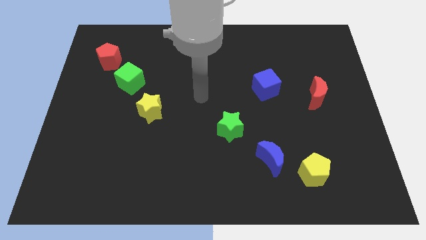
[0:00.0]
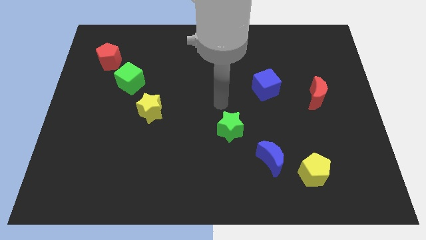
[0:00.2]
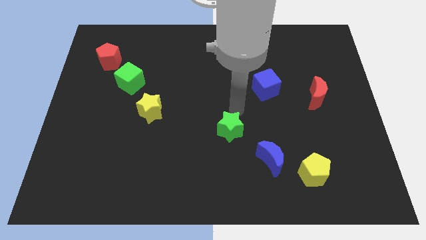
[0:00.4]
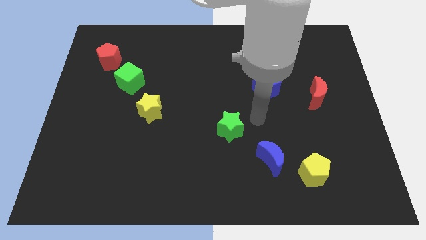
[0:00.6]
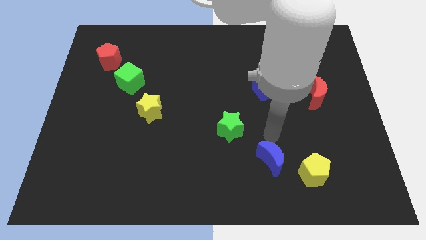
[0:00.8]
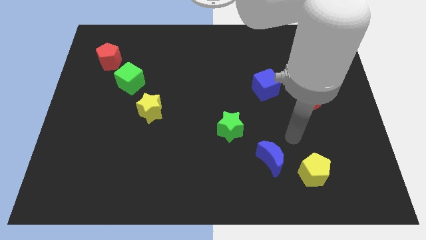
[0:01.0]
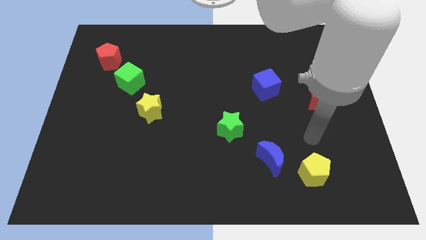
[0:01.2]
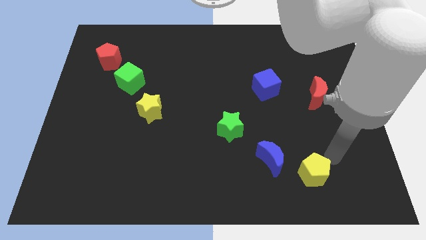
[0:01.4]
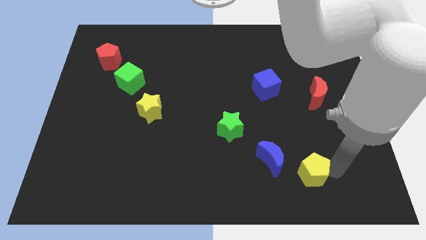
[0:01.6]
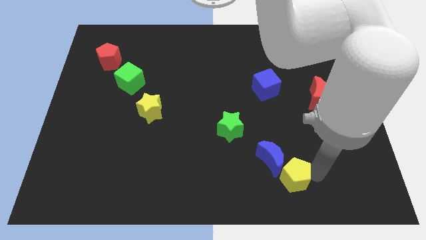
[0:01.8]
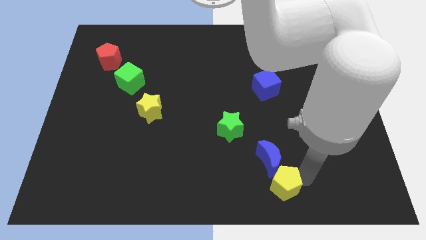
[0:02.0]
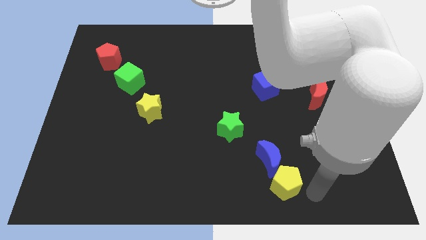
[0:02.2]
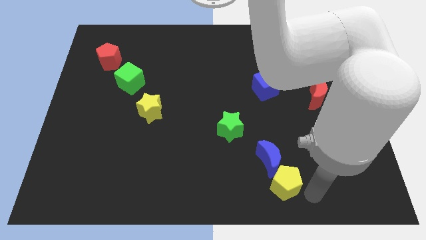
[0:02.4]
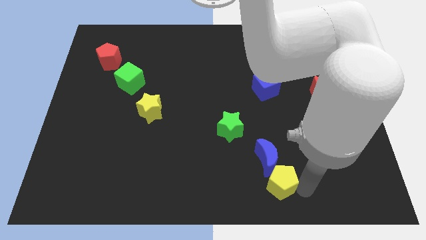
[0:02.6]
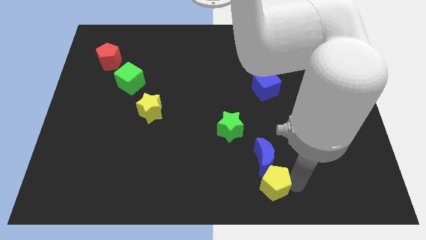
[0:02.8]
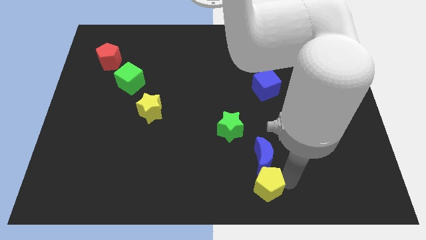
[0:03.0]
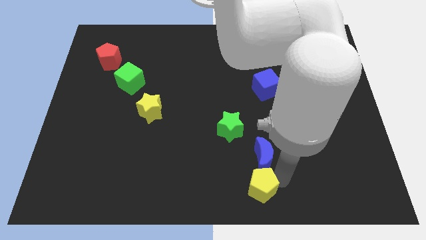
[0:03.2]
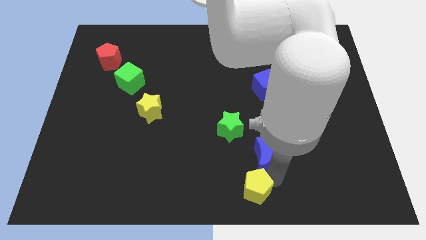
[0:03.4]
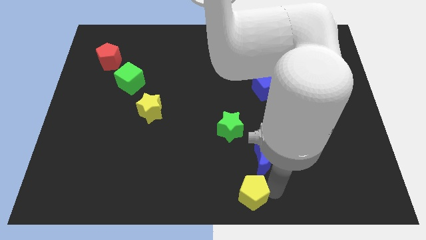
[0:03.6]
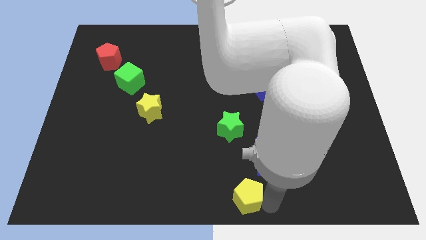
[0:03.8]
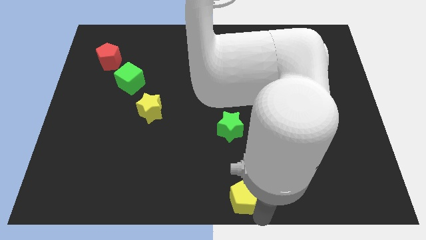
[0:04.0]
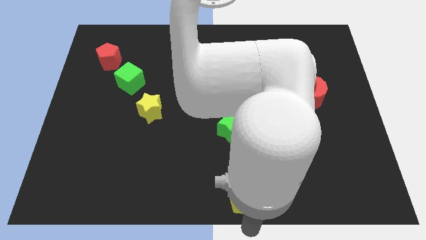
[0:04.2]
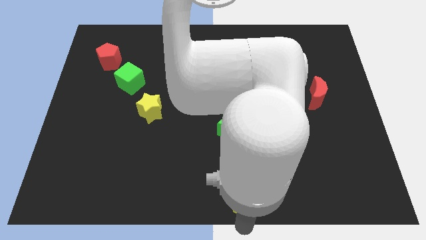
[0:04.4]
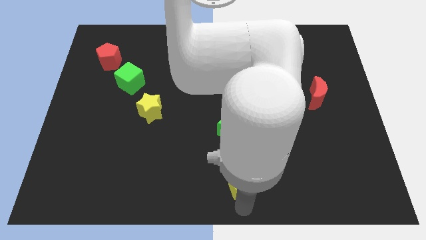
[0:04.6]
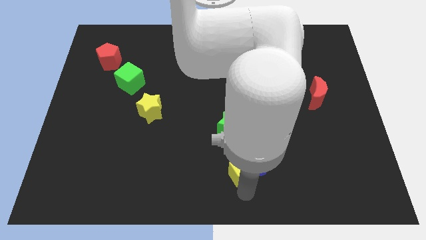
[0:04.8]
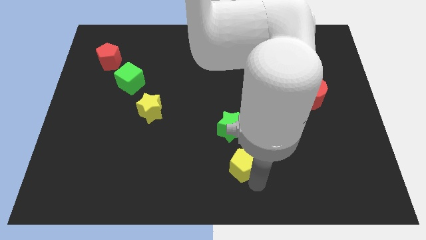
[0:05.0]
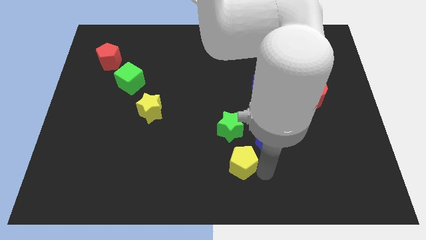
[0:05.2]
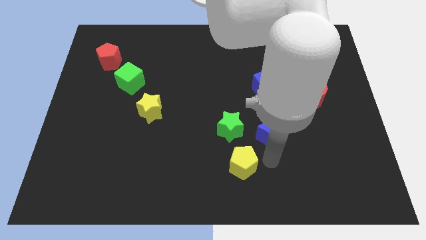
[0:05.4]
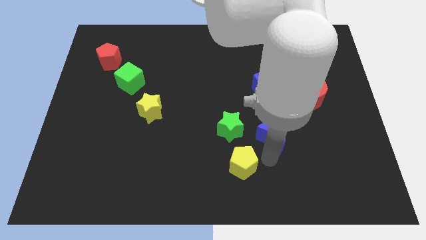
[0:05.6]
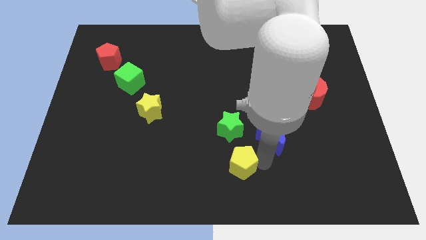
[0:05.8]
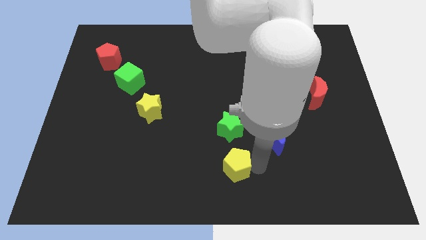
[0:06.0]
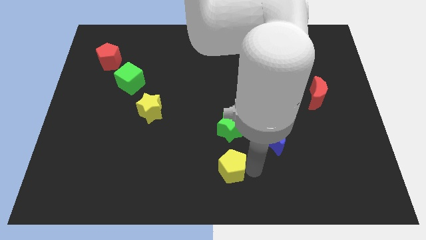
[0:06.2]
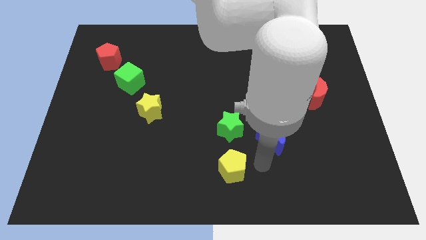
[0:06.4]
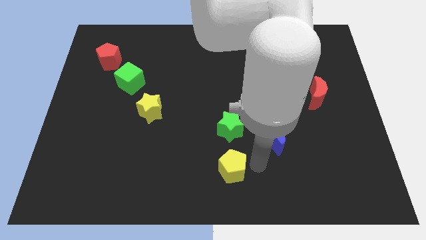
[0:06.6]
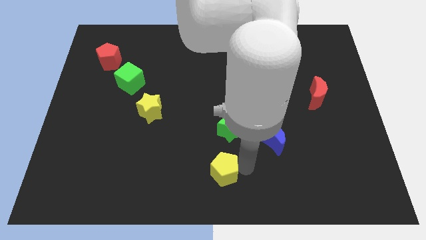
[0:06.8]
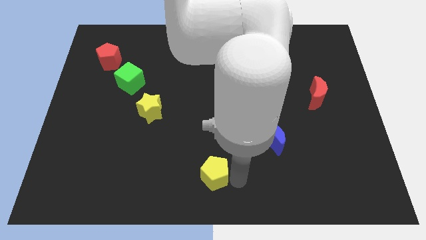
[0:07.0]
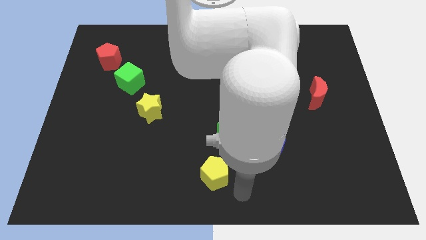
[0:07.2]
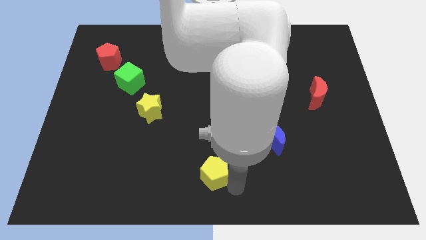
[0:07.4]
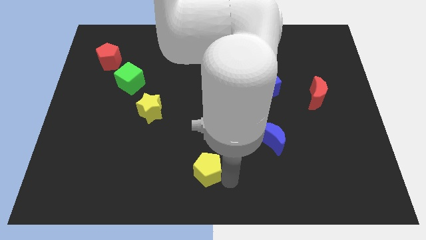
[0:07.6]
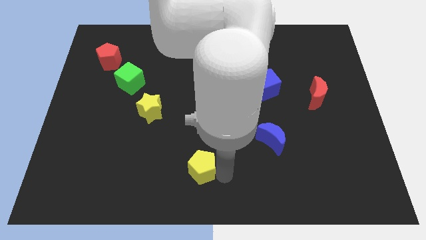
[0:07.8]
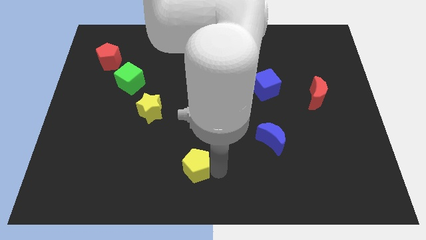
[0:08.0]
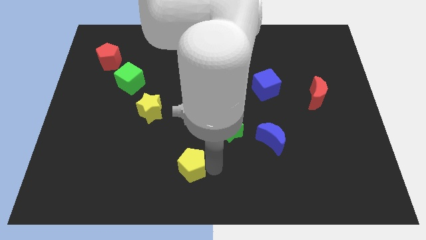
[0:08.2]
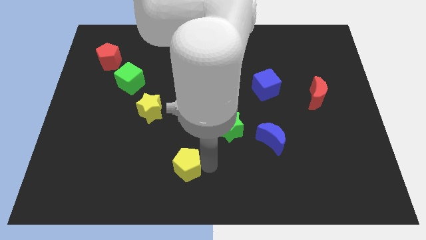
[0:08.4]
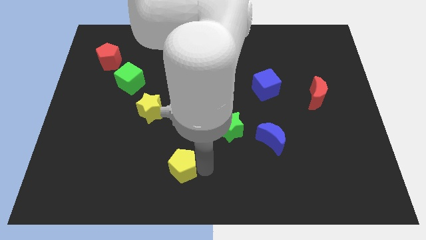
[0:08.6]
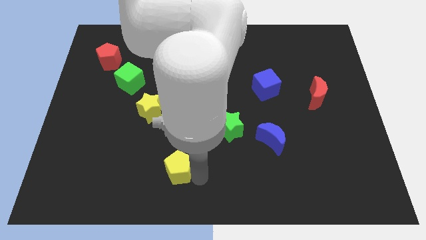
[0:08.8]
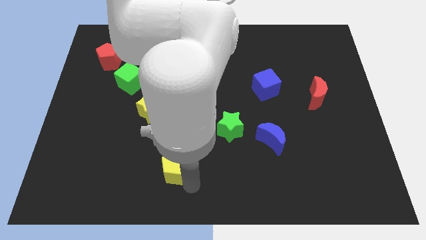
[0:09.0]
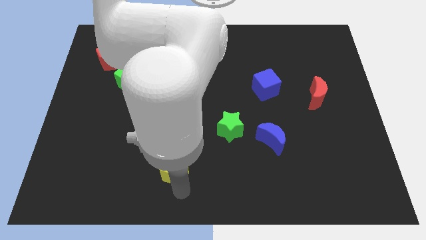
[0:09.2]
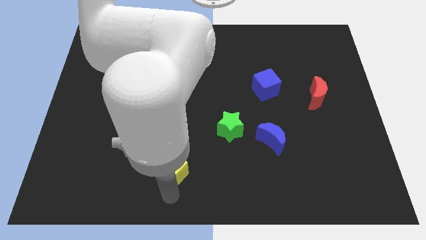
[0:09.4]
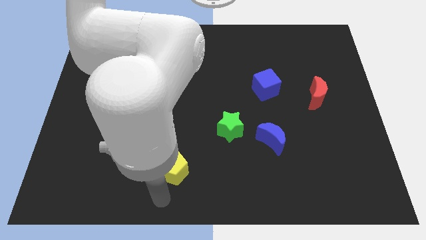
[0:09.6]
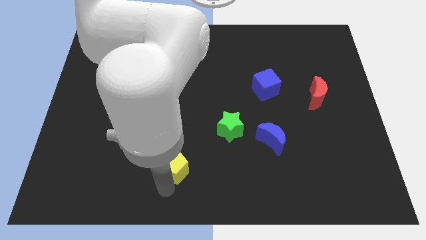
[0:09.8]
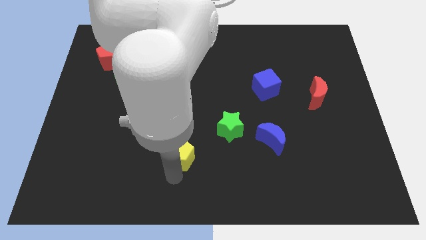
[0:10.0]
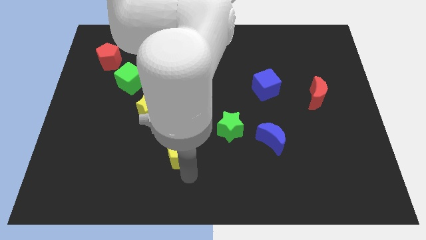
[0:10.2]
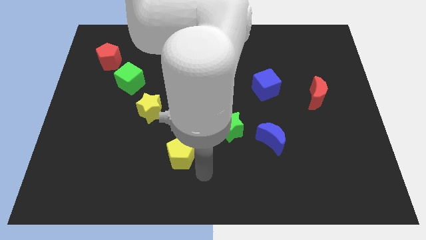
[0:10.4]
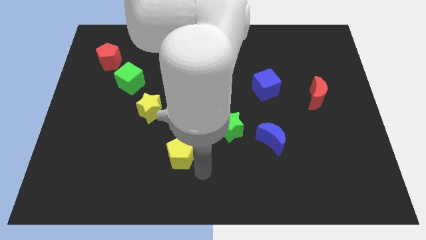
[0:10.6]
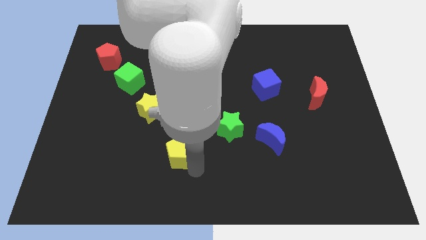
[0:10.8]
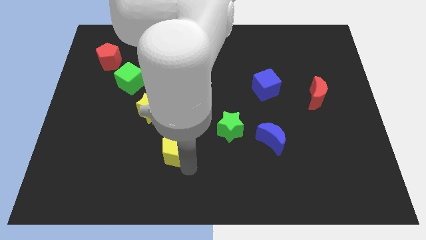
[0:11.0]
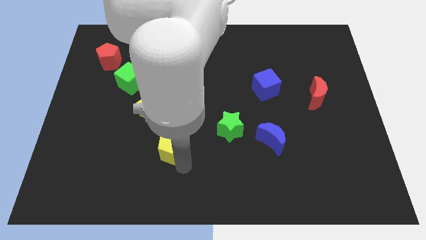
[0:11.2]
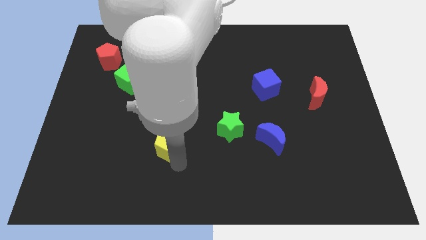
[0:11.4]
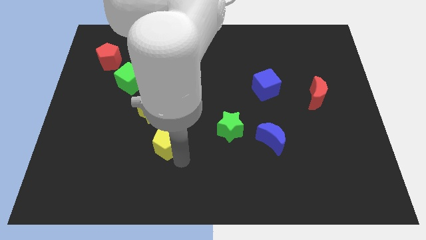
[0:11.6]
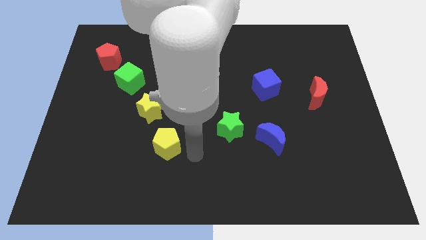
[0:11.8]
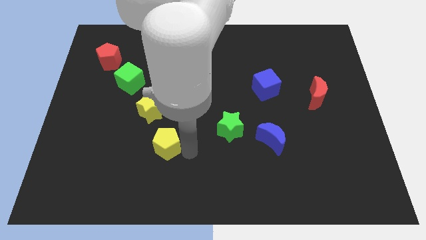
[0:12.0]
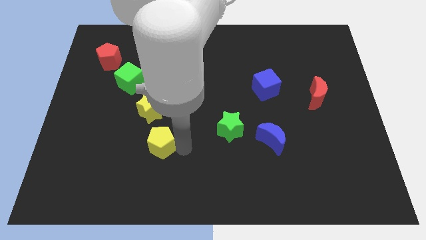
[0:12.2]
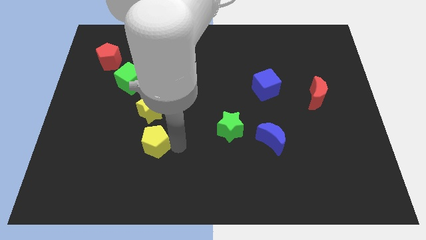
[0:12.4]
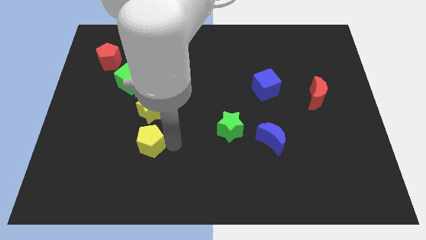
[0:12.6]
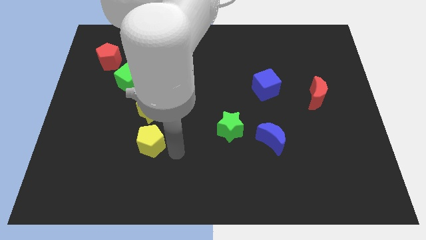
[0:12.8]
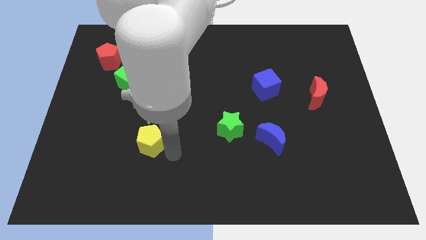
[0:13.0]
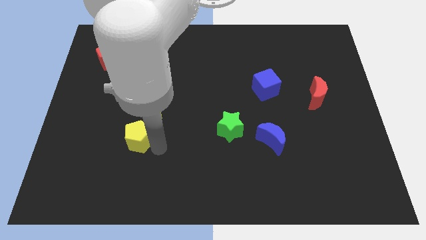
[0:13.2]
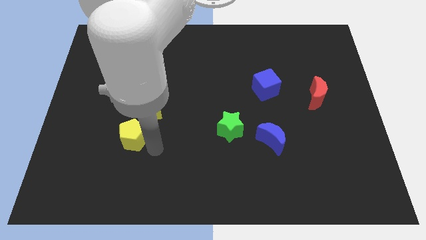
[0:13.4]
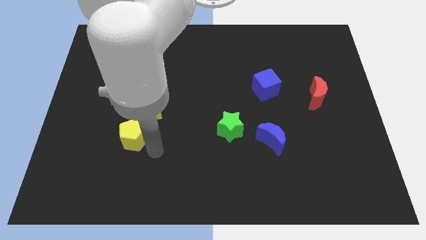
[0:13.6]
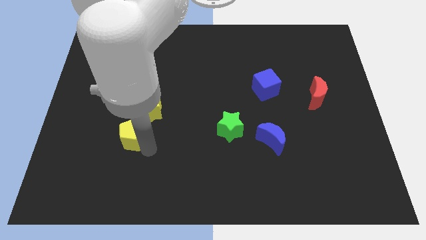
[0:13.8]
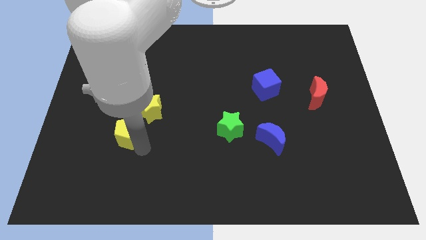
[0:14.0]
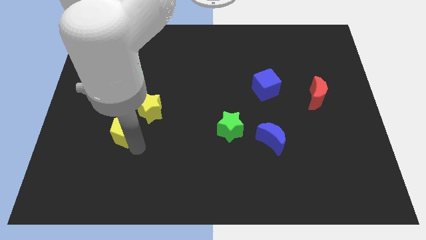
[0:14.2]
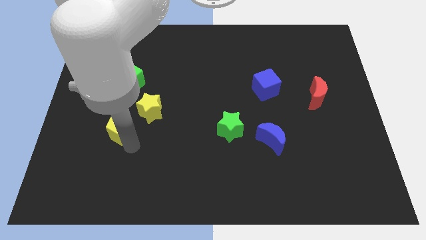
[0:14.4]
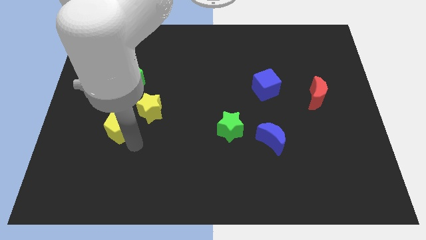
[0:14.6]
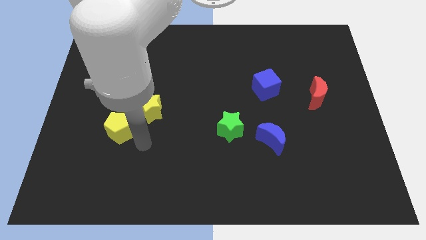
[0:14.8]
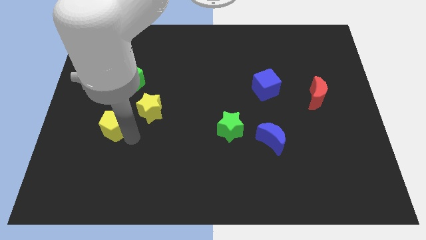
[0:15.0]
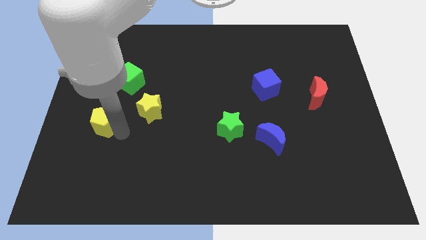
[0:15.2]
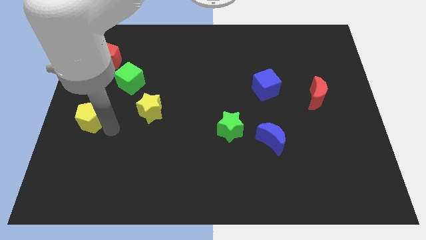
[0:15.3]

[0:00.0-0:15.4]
move the yellow pentagon to the left side of the board
